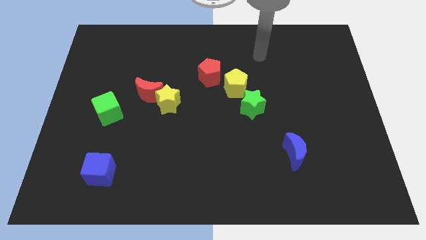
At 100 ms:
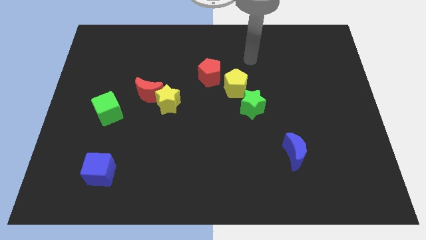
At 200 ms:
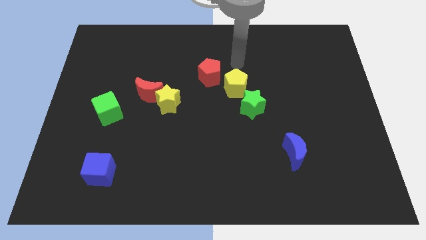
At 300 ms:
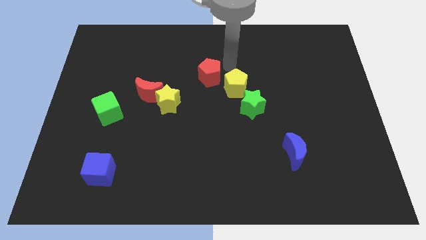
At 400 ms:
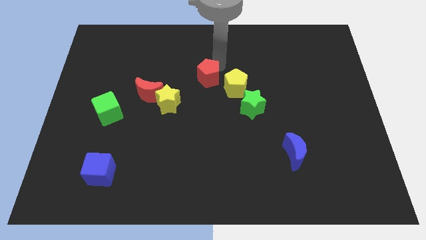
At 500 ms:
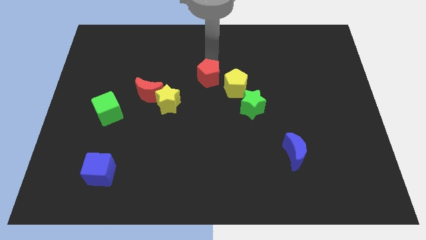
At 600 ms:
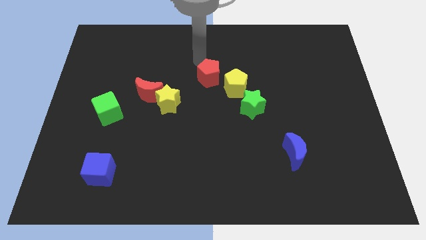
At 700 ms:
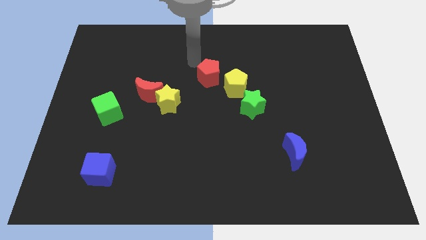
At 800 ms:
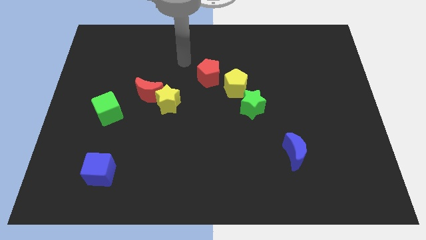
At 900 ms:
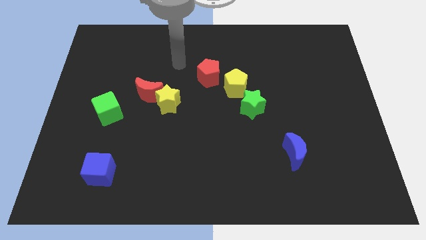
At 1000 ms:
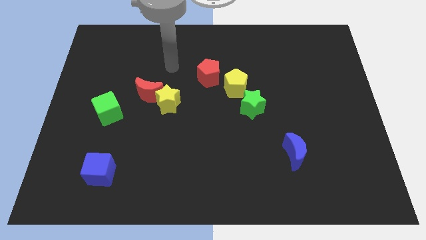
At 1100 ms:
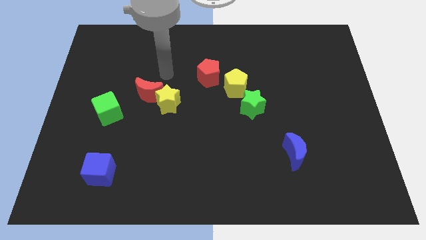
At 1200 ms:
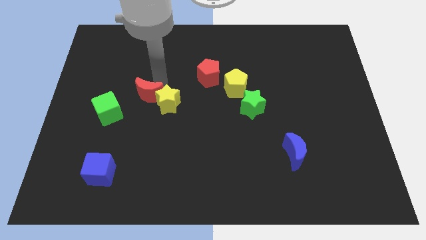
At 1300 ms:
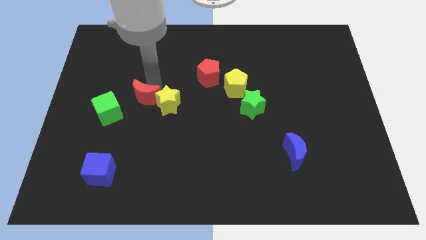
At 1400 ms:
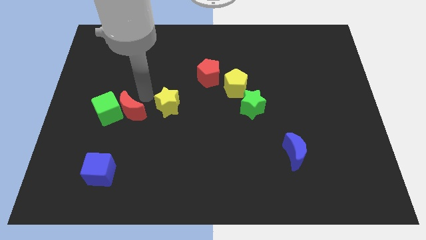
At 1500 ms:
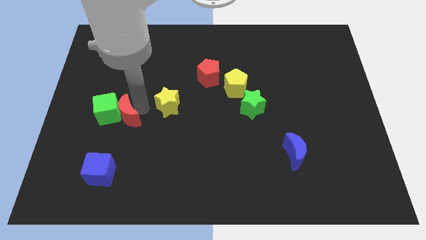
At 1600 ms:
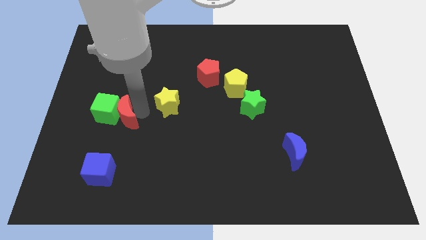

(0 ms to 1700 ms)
separate the yellow star from the red moon

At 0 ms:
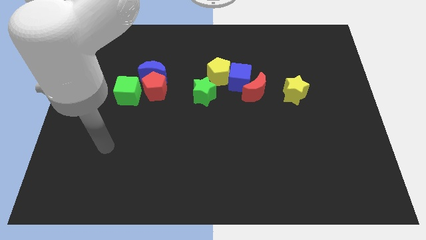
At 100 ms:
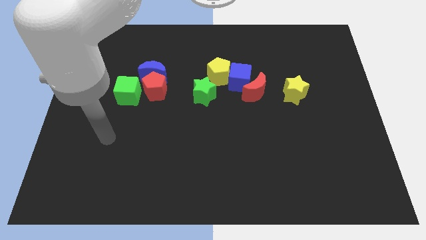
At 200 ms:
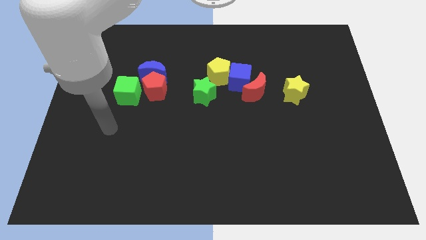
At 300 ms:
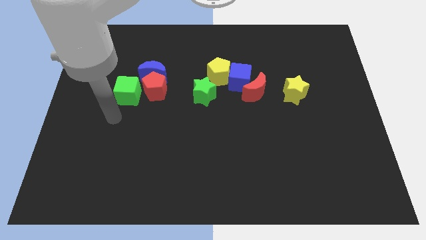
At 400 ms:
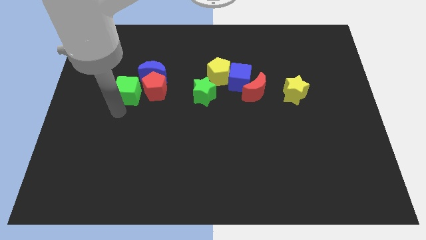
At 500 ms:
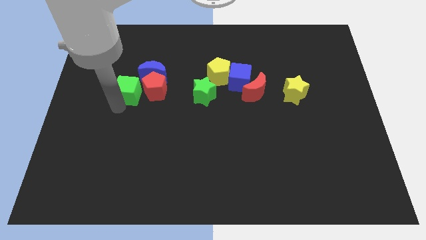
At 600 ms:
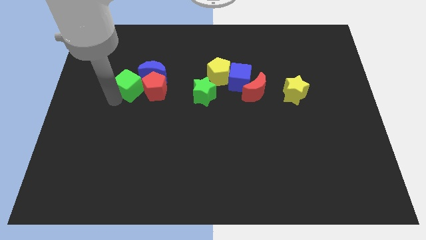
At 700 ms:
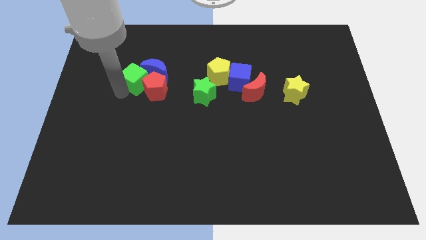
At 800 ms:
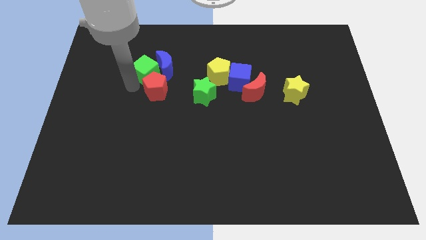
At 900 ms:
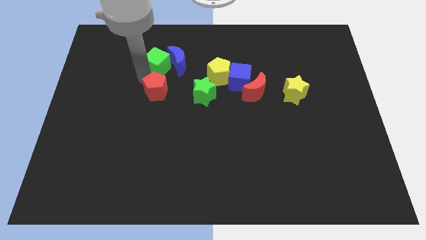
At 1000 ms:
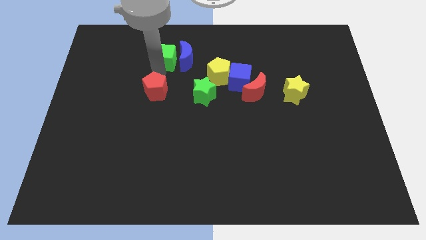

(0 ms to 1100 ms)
move the red pentagon away from the blue moon and green cube

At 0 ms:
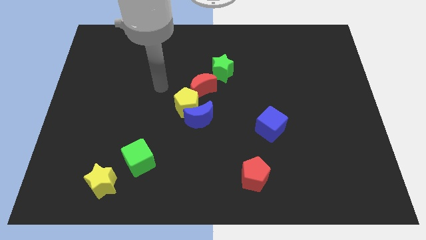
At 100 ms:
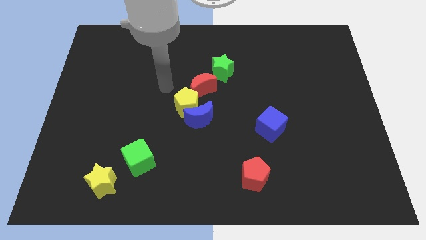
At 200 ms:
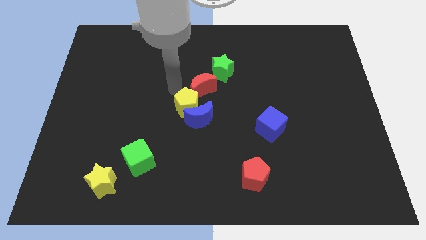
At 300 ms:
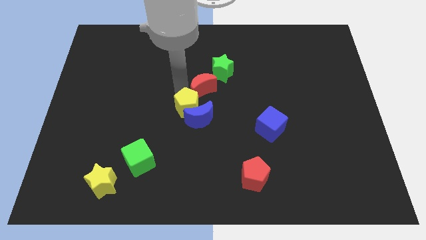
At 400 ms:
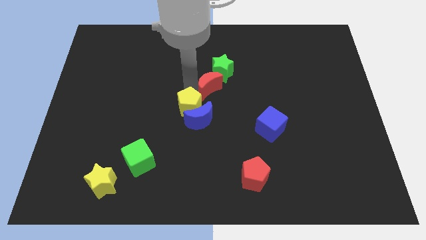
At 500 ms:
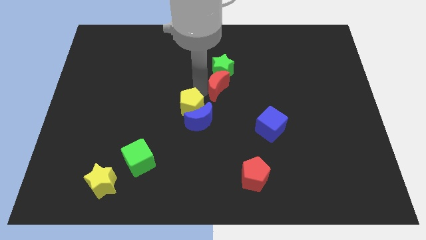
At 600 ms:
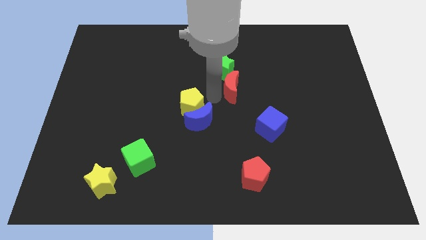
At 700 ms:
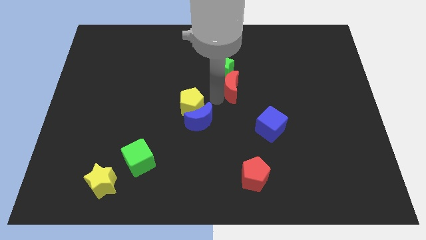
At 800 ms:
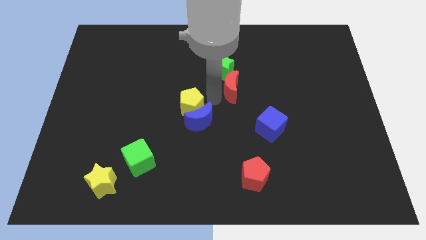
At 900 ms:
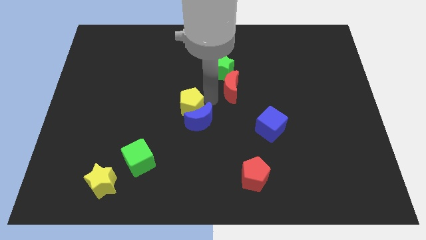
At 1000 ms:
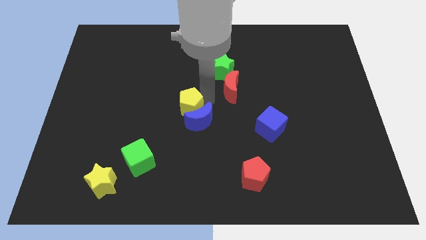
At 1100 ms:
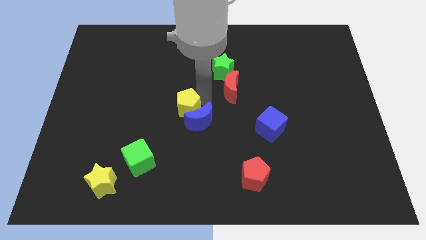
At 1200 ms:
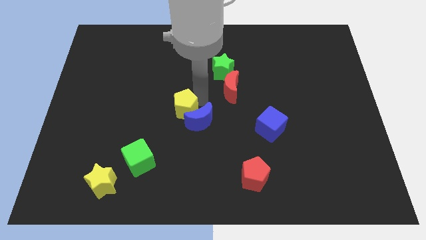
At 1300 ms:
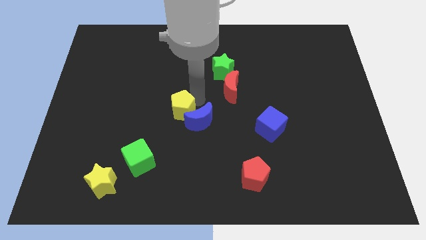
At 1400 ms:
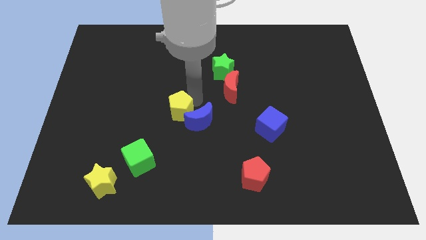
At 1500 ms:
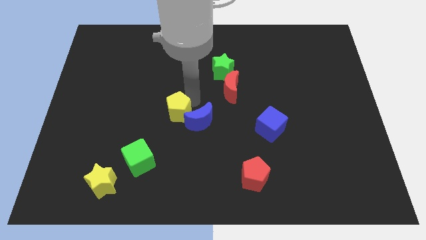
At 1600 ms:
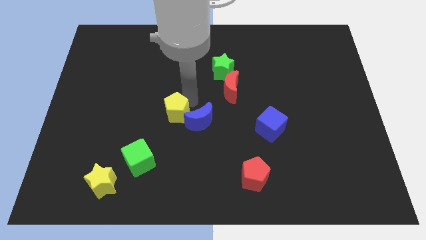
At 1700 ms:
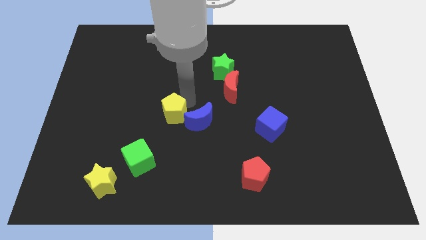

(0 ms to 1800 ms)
move the yellow pentagon away from the blue moon and red moon

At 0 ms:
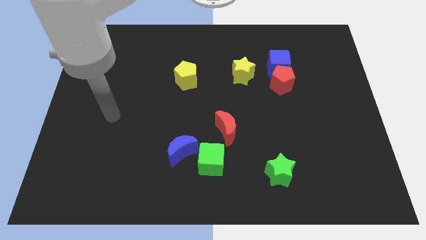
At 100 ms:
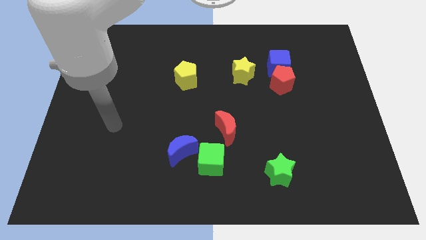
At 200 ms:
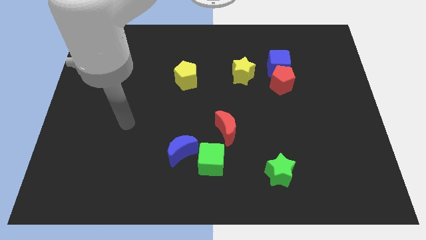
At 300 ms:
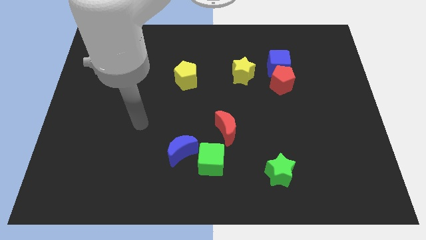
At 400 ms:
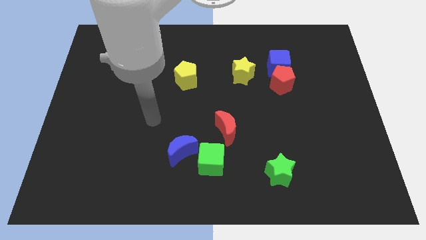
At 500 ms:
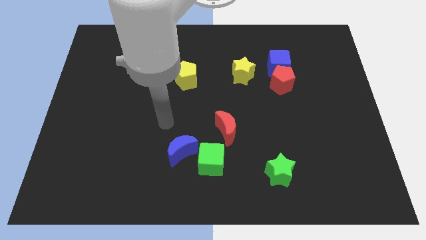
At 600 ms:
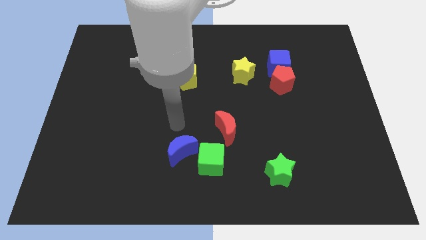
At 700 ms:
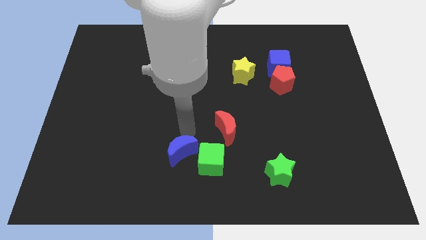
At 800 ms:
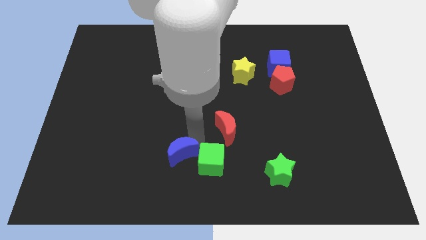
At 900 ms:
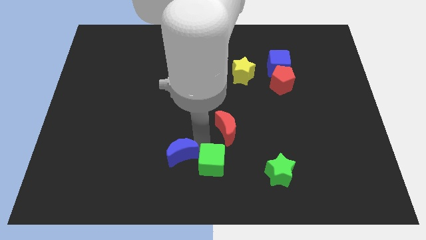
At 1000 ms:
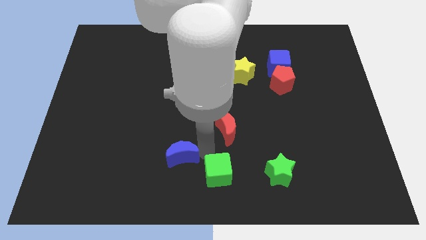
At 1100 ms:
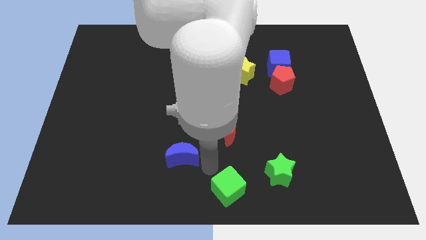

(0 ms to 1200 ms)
separate the blue moon from the green cube

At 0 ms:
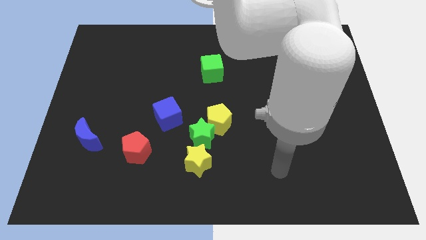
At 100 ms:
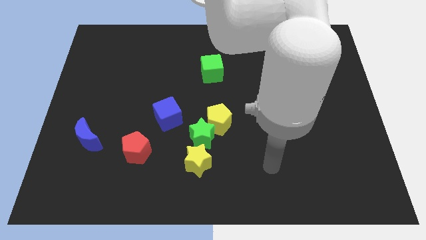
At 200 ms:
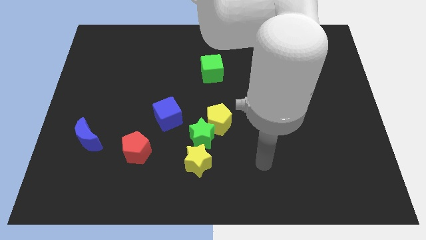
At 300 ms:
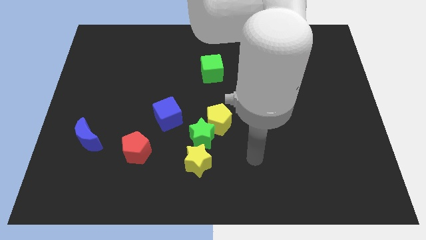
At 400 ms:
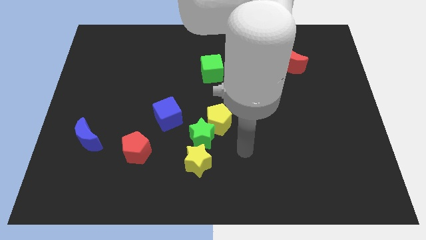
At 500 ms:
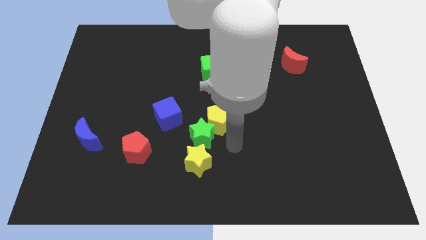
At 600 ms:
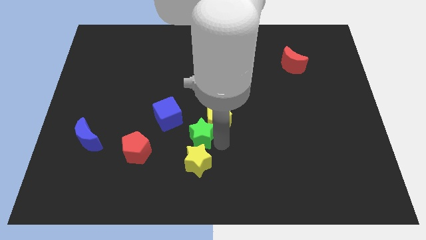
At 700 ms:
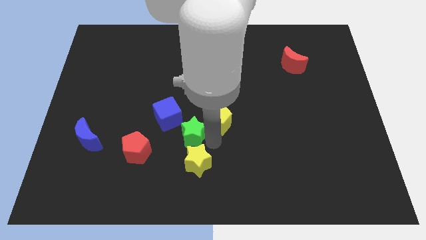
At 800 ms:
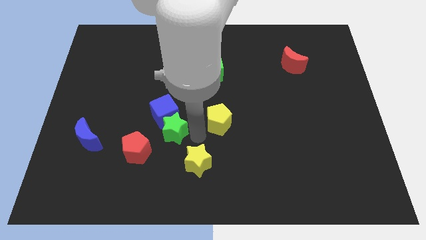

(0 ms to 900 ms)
pull the yellow pentagon apart from the green star

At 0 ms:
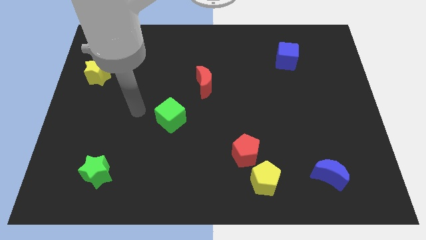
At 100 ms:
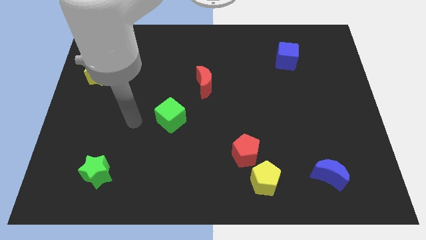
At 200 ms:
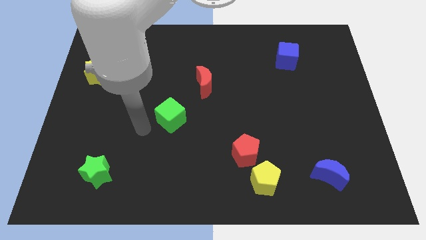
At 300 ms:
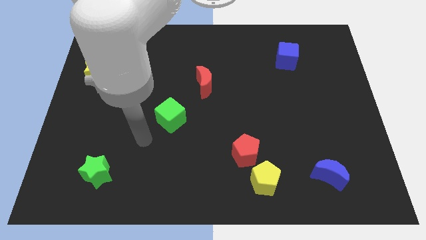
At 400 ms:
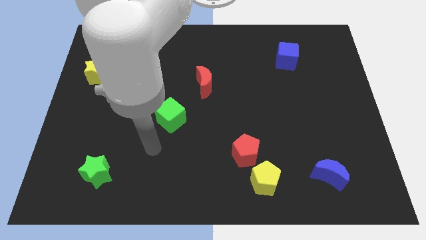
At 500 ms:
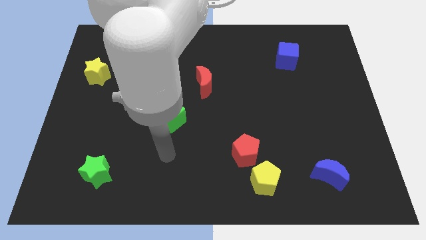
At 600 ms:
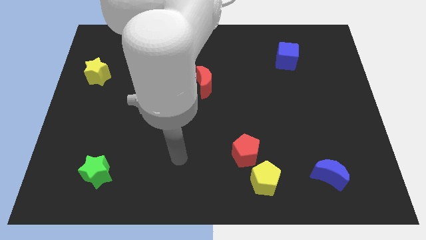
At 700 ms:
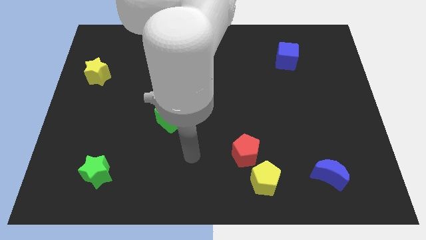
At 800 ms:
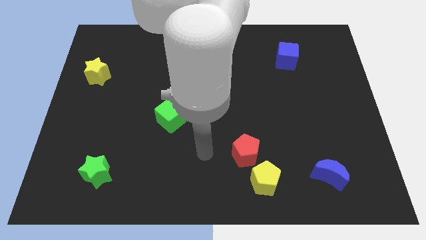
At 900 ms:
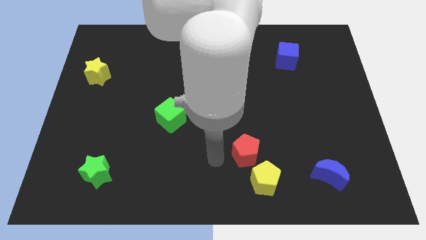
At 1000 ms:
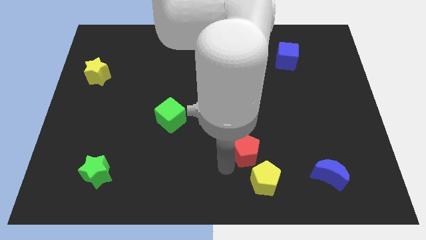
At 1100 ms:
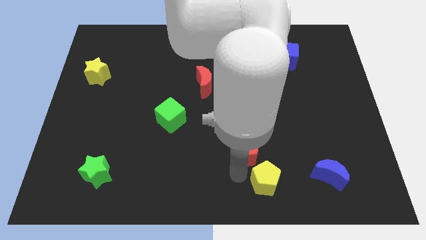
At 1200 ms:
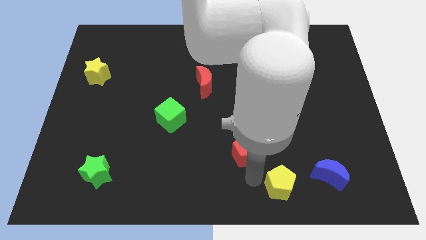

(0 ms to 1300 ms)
separate the red pentagon from the yellow pentagon

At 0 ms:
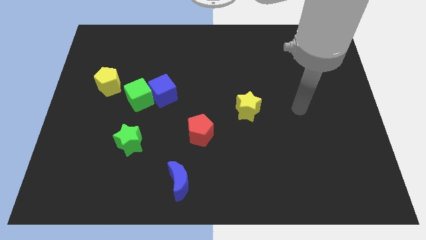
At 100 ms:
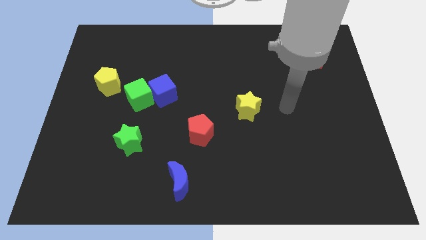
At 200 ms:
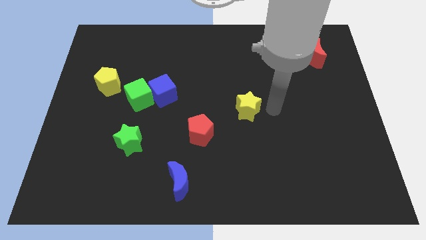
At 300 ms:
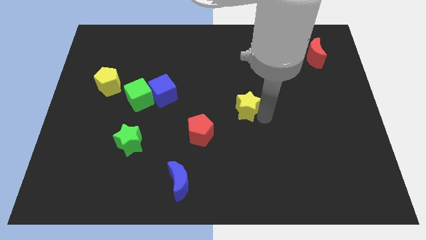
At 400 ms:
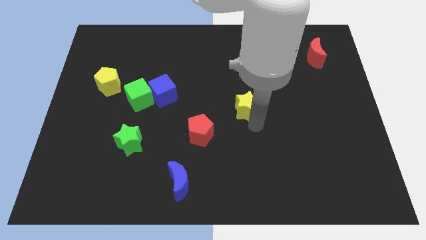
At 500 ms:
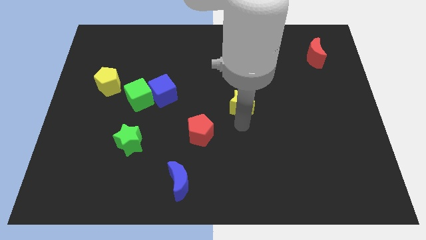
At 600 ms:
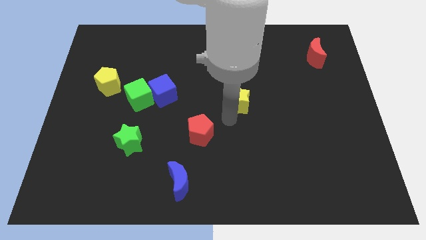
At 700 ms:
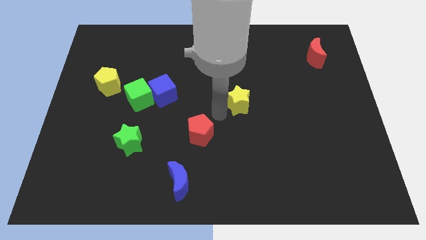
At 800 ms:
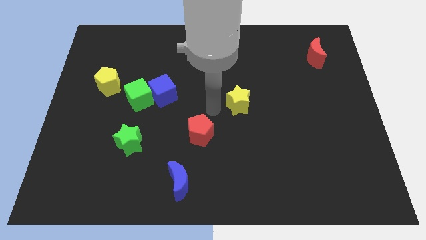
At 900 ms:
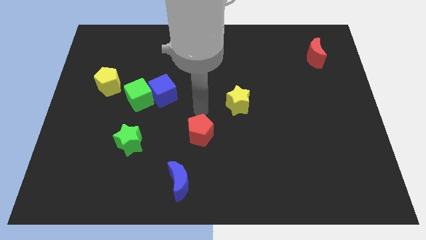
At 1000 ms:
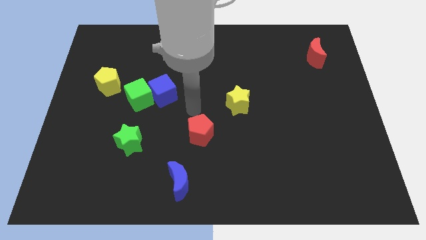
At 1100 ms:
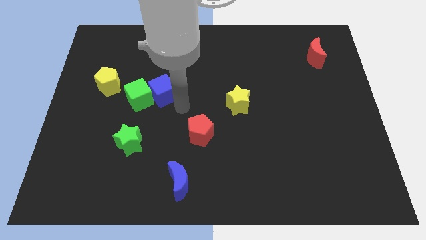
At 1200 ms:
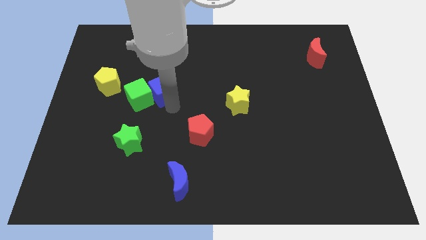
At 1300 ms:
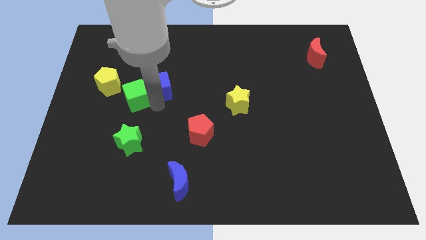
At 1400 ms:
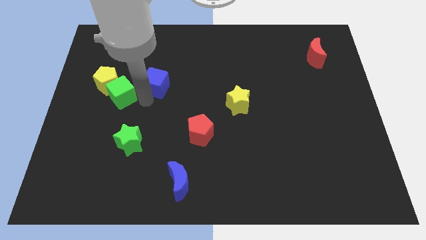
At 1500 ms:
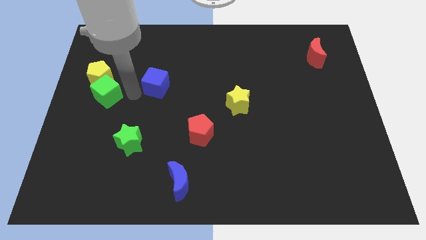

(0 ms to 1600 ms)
pull the blue cube apart from the green cube
